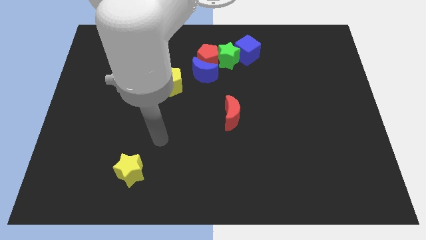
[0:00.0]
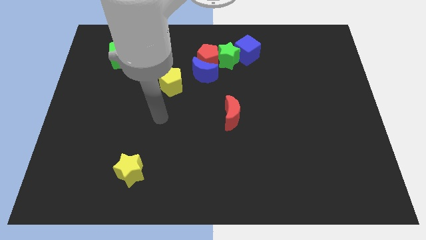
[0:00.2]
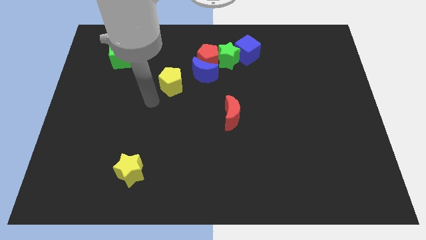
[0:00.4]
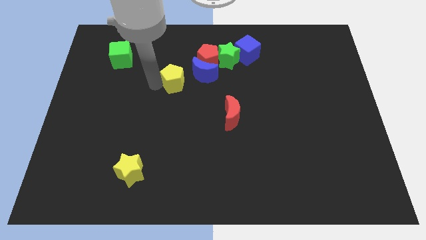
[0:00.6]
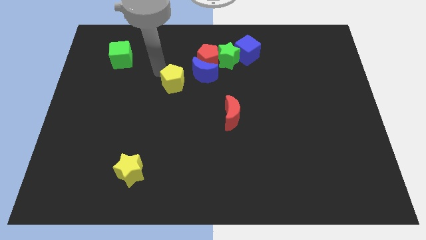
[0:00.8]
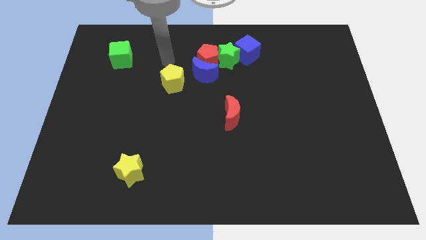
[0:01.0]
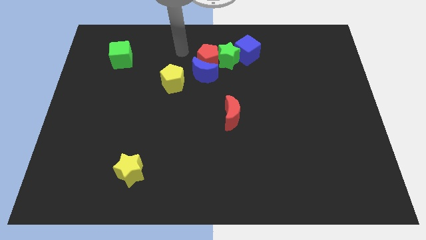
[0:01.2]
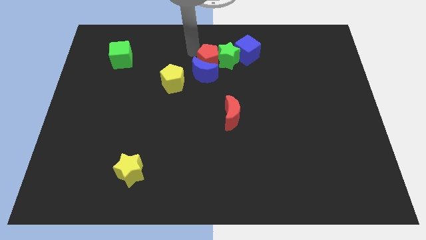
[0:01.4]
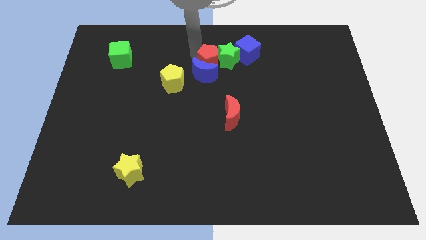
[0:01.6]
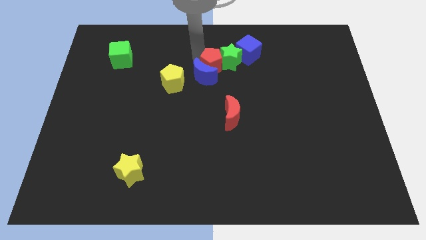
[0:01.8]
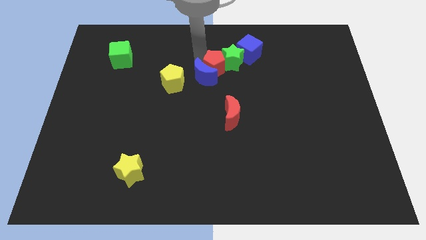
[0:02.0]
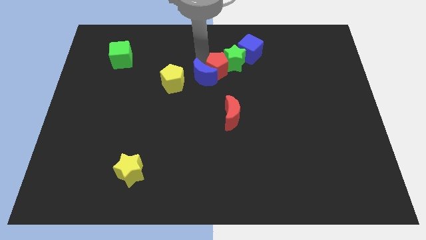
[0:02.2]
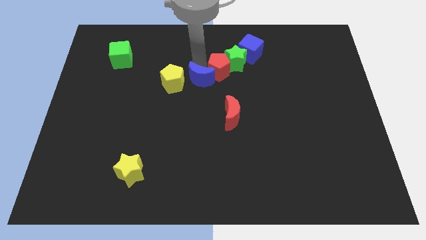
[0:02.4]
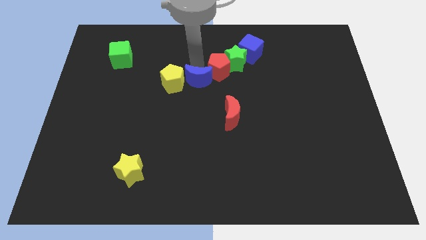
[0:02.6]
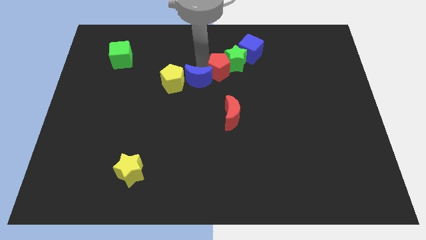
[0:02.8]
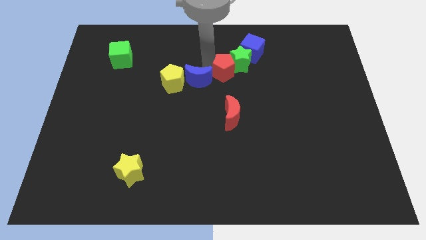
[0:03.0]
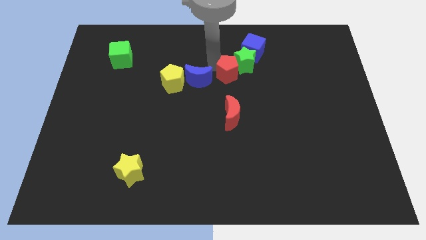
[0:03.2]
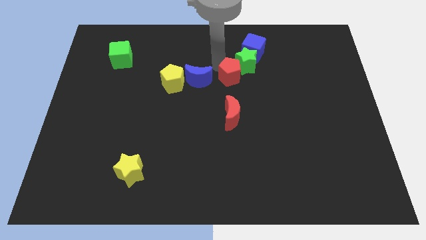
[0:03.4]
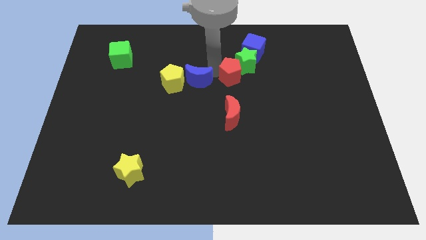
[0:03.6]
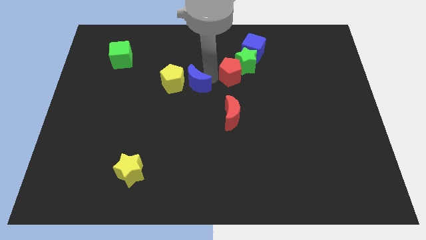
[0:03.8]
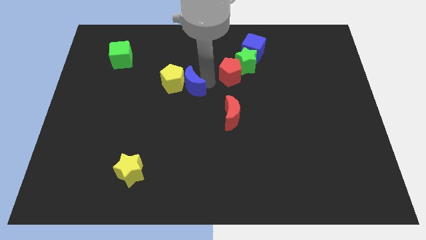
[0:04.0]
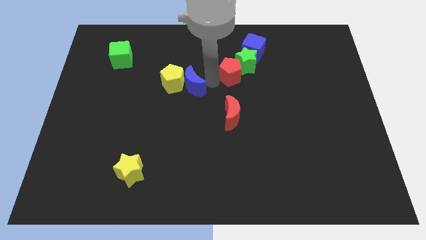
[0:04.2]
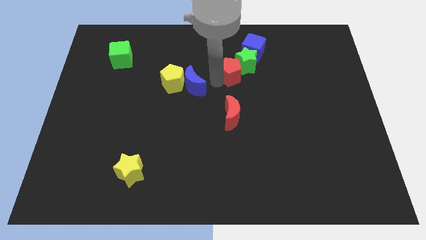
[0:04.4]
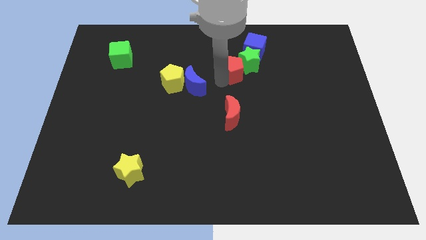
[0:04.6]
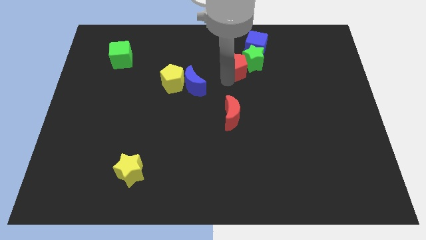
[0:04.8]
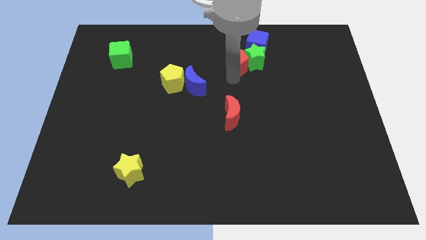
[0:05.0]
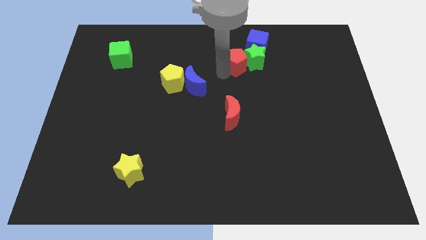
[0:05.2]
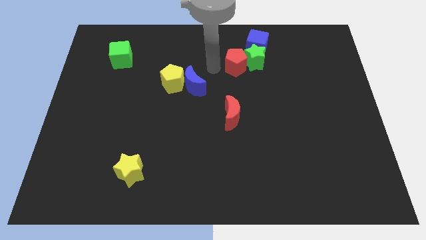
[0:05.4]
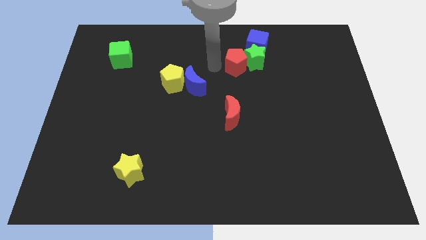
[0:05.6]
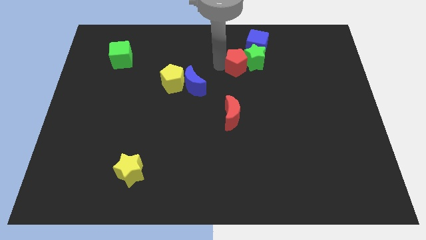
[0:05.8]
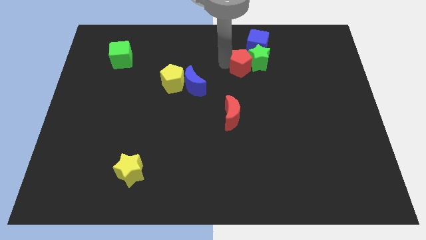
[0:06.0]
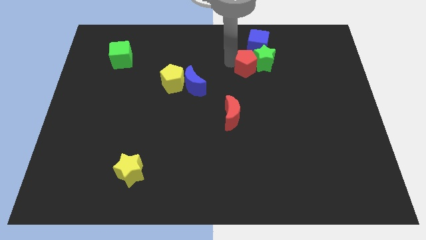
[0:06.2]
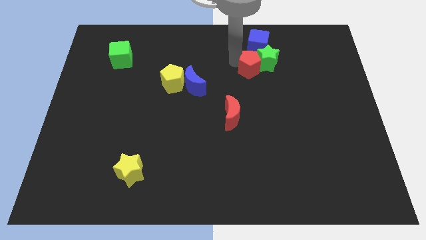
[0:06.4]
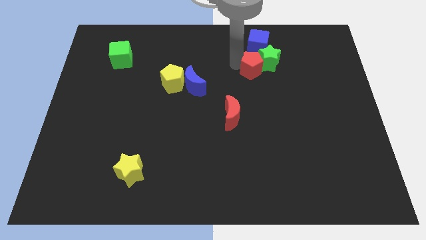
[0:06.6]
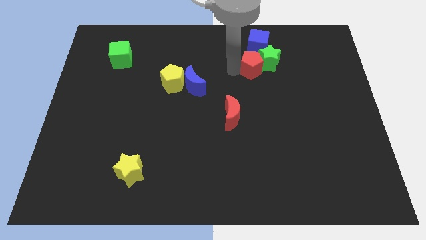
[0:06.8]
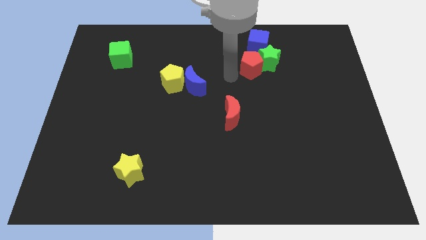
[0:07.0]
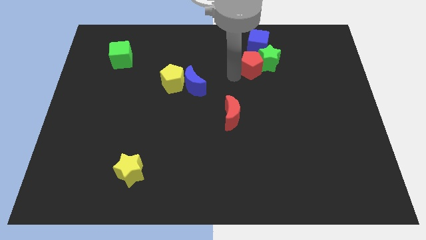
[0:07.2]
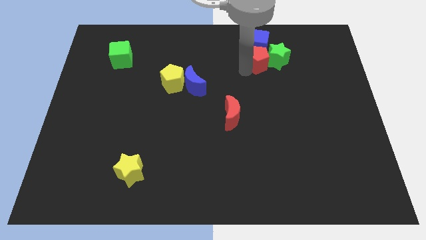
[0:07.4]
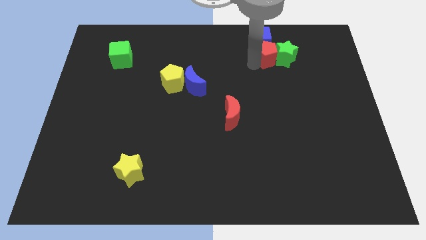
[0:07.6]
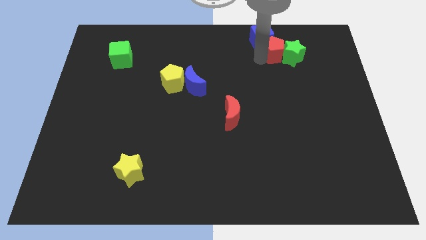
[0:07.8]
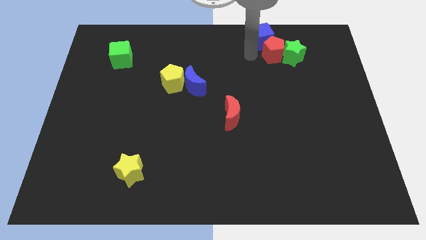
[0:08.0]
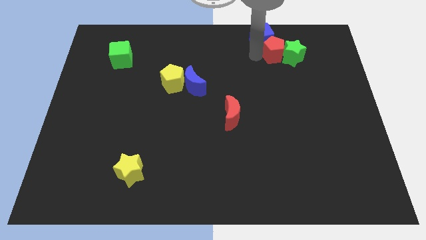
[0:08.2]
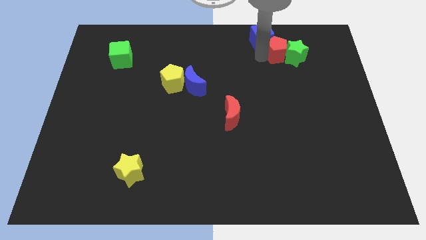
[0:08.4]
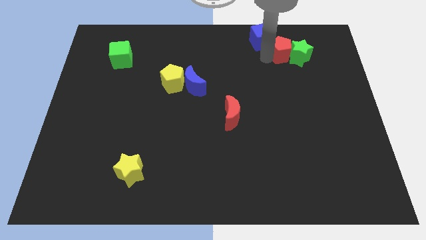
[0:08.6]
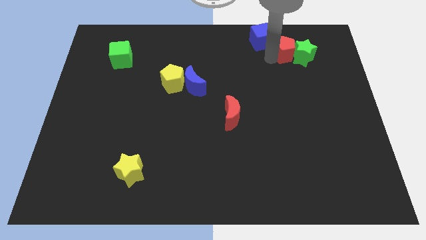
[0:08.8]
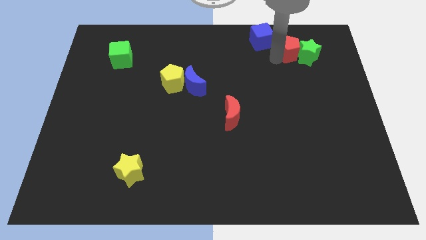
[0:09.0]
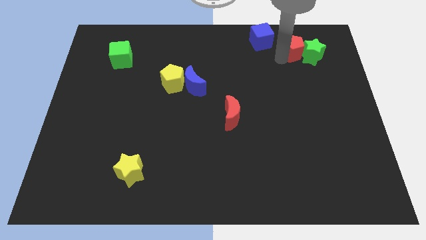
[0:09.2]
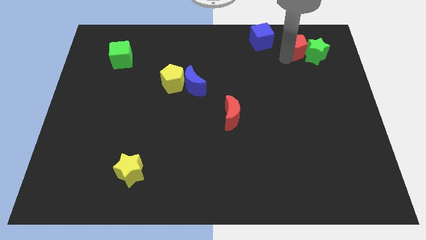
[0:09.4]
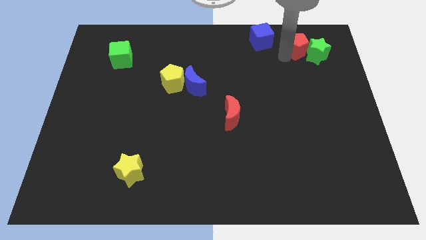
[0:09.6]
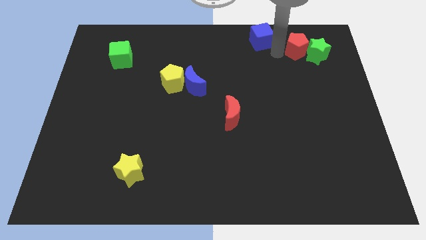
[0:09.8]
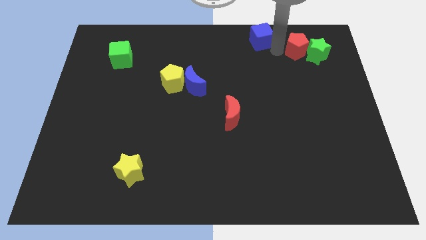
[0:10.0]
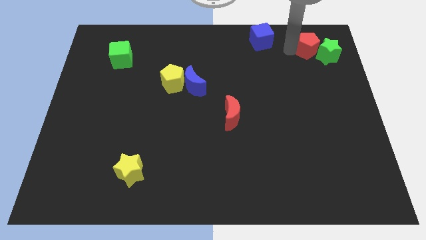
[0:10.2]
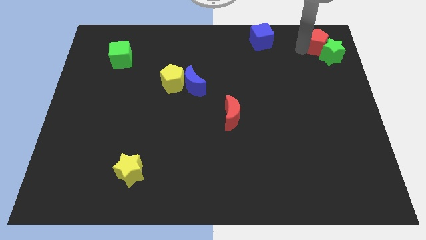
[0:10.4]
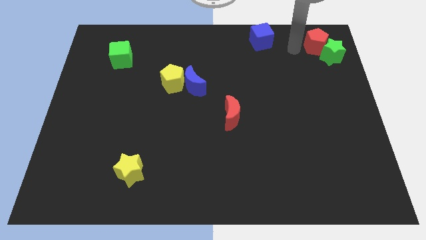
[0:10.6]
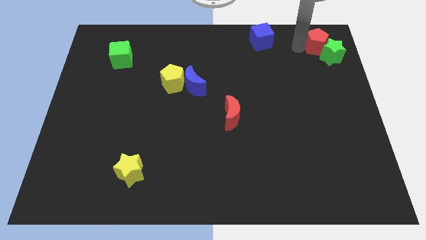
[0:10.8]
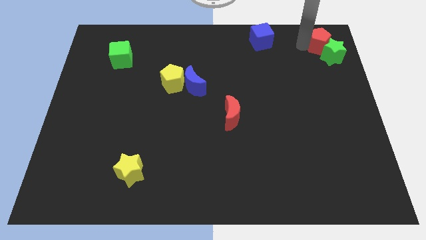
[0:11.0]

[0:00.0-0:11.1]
move the red pentagon to the top right

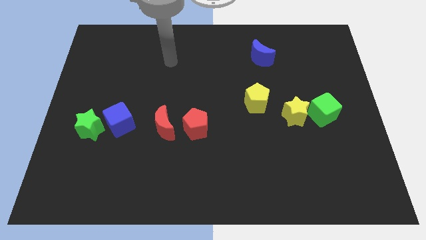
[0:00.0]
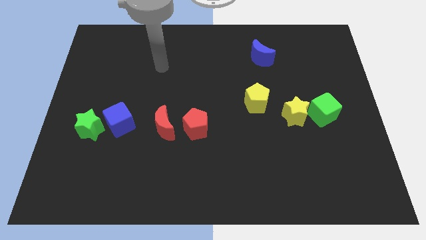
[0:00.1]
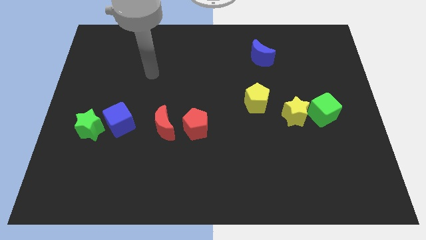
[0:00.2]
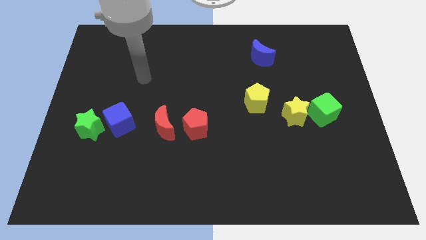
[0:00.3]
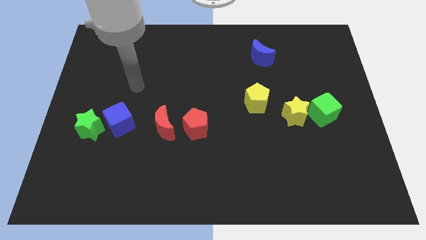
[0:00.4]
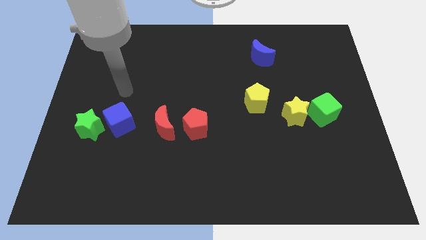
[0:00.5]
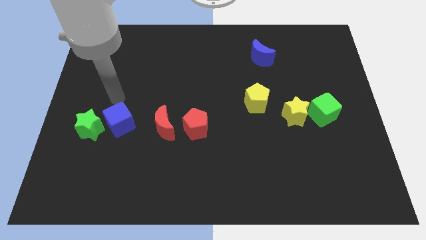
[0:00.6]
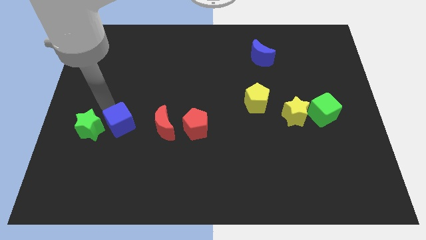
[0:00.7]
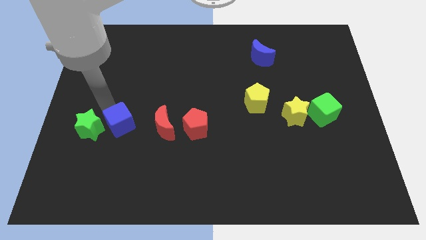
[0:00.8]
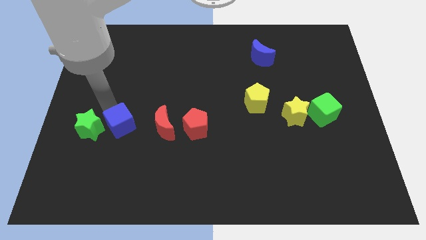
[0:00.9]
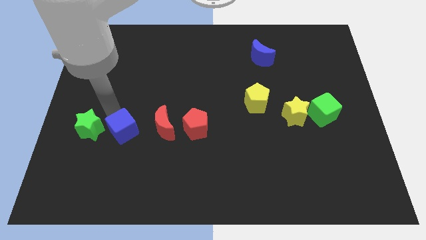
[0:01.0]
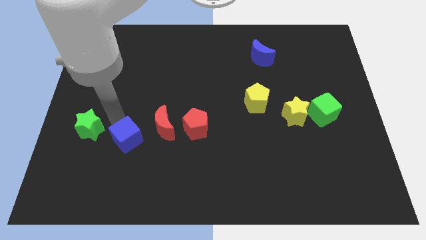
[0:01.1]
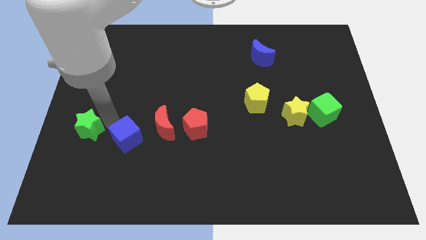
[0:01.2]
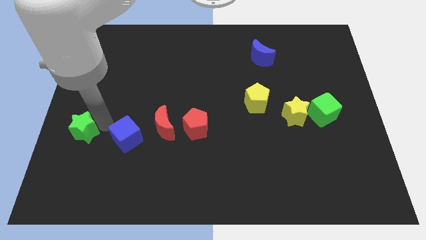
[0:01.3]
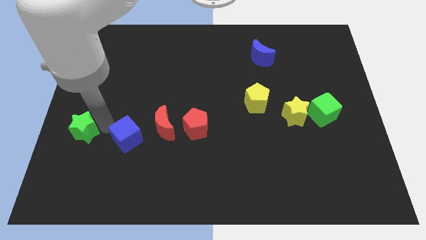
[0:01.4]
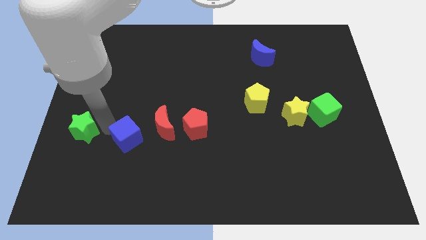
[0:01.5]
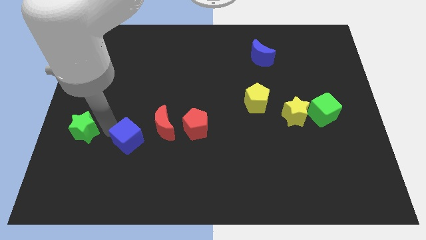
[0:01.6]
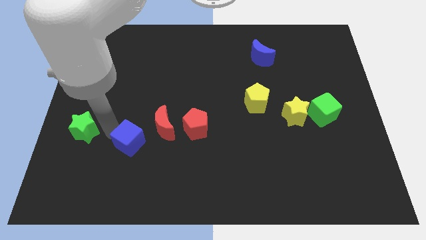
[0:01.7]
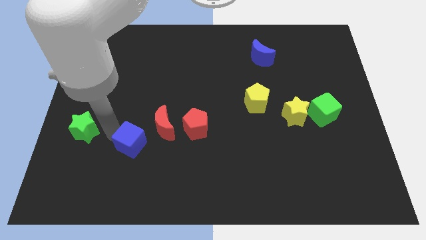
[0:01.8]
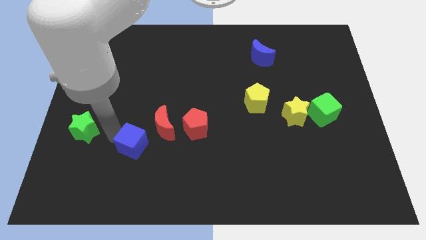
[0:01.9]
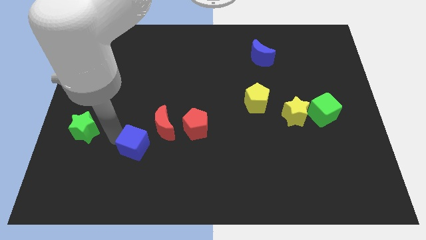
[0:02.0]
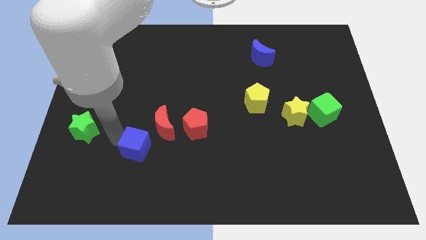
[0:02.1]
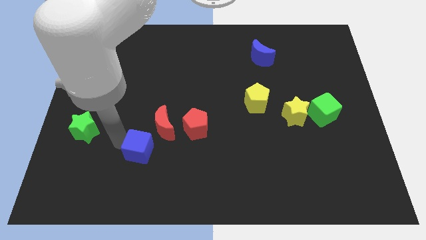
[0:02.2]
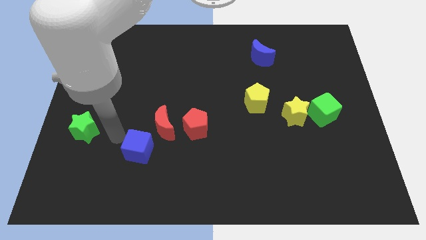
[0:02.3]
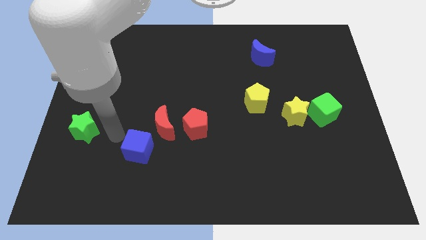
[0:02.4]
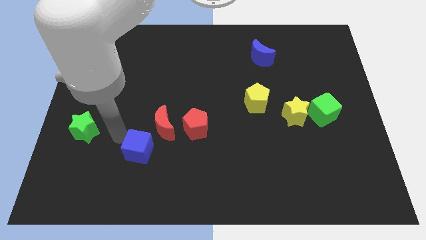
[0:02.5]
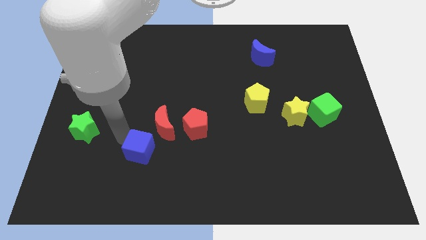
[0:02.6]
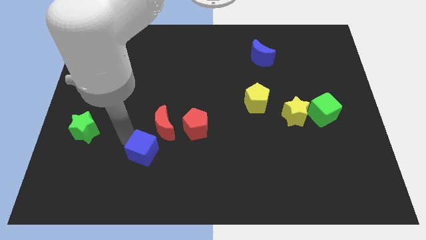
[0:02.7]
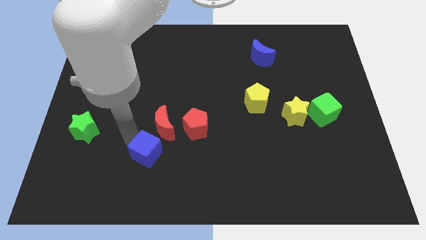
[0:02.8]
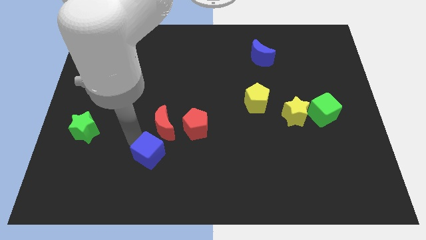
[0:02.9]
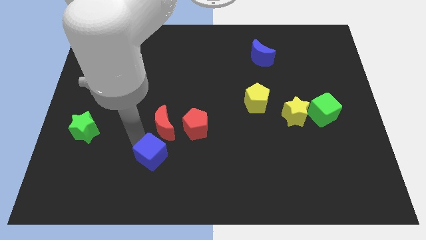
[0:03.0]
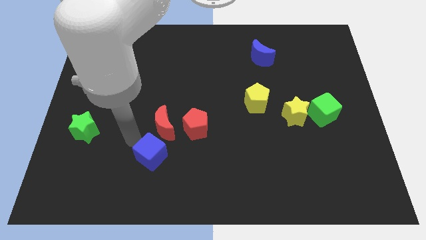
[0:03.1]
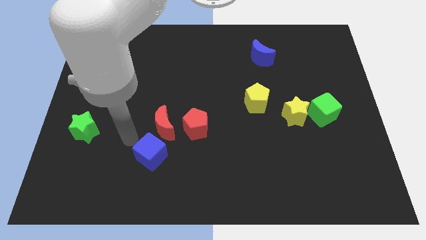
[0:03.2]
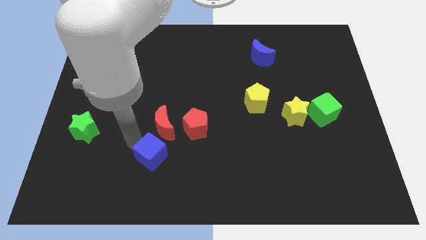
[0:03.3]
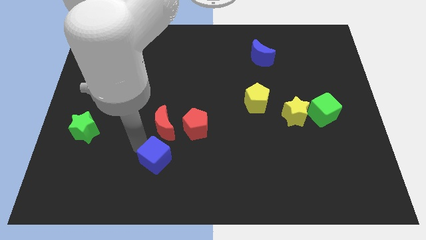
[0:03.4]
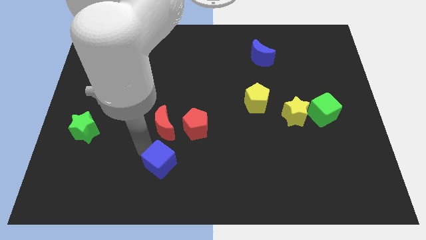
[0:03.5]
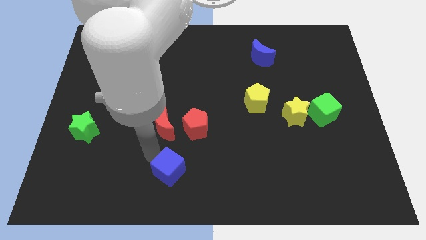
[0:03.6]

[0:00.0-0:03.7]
push the blue cube to the bottom
